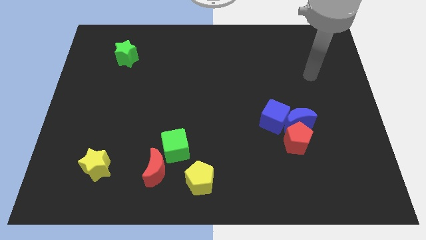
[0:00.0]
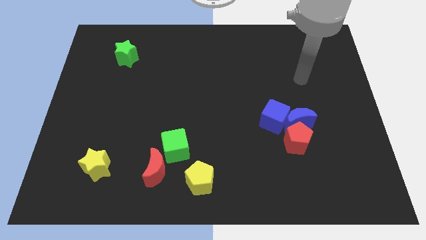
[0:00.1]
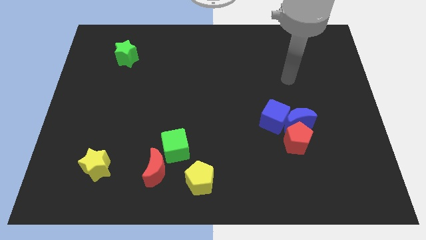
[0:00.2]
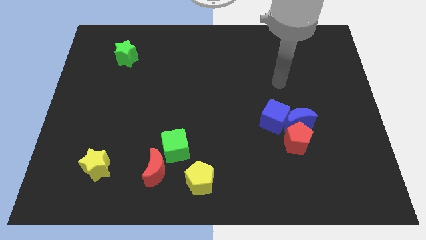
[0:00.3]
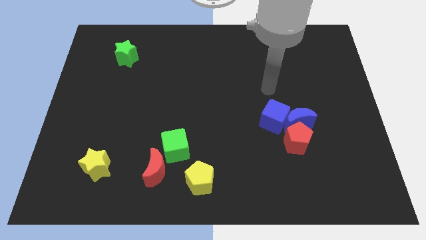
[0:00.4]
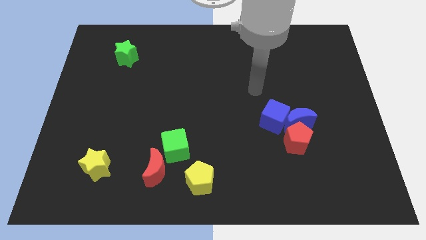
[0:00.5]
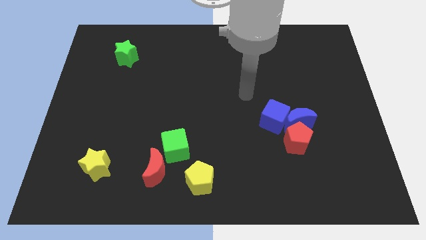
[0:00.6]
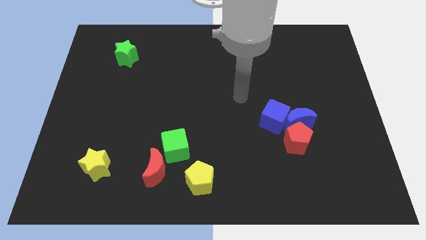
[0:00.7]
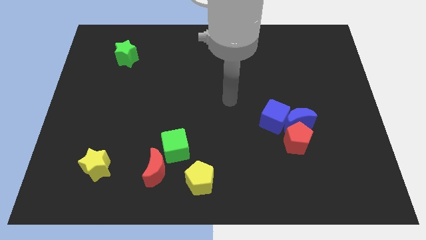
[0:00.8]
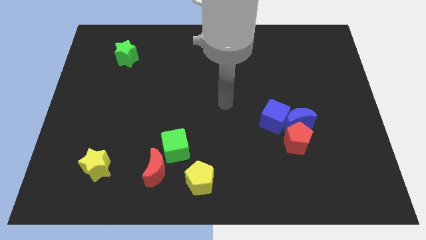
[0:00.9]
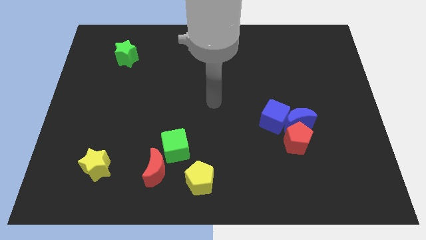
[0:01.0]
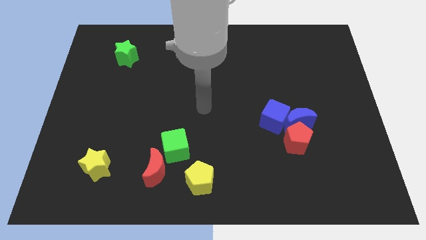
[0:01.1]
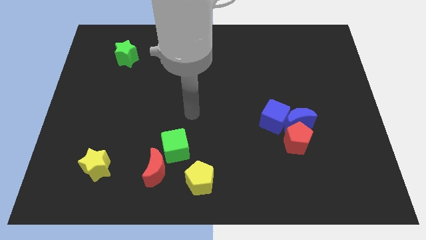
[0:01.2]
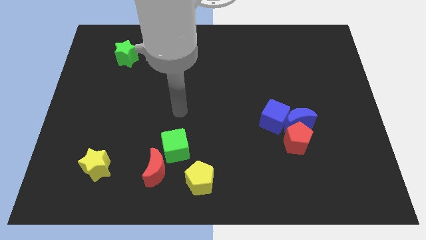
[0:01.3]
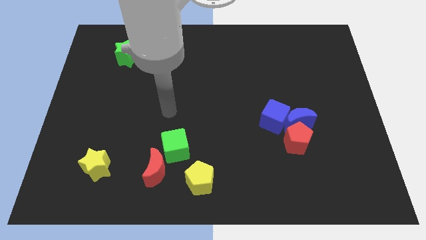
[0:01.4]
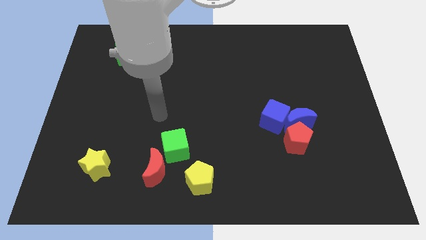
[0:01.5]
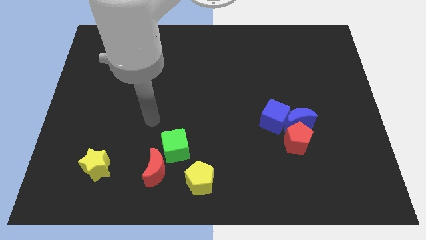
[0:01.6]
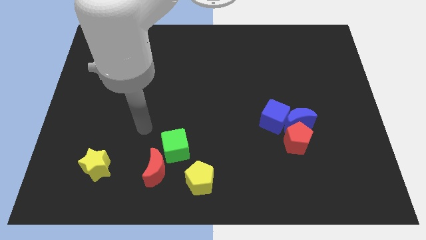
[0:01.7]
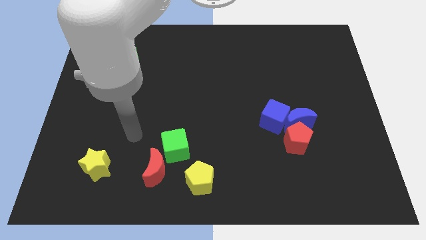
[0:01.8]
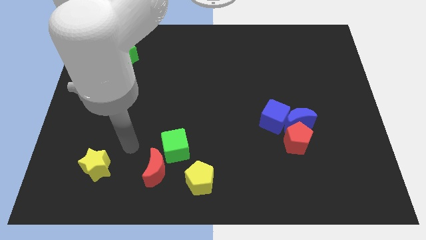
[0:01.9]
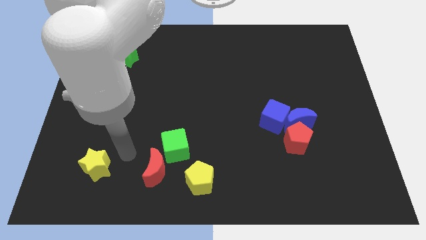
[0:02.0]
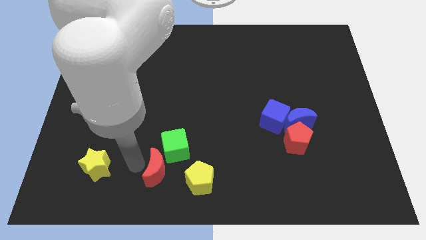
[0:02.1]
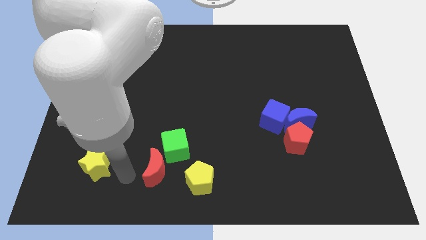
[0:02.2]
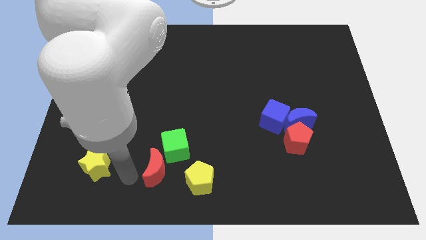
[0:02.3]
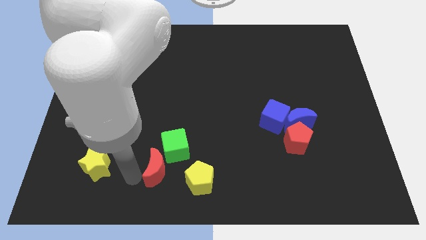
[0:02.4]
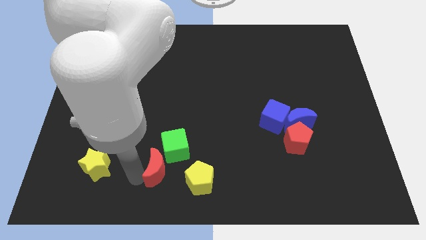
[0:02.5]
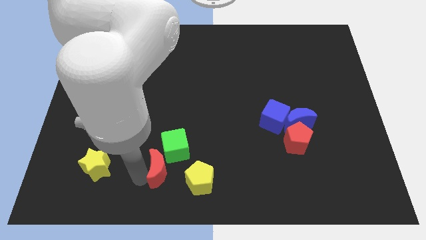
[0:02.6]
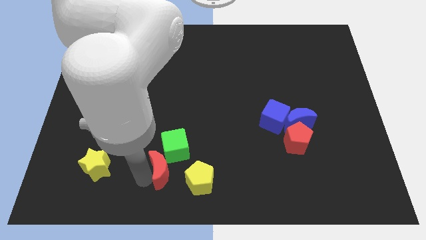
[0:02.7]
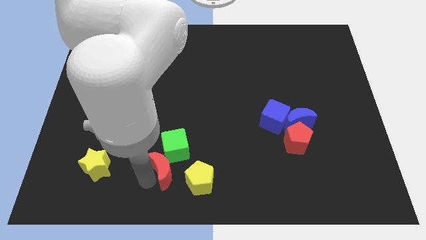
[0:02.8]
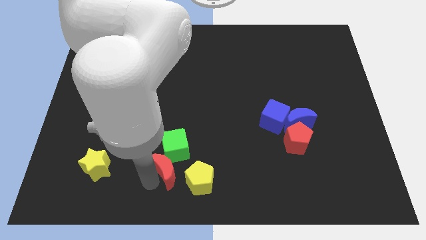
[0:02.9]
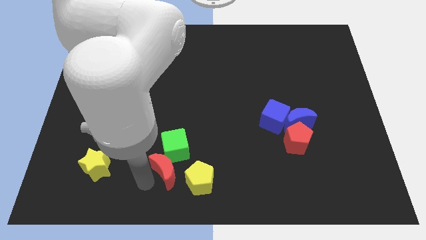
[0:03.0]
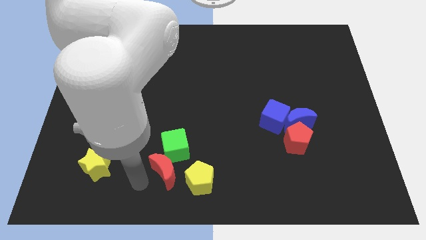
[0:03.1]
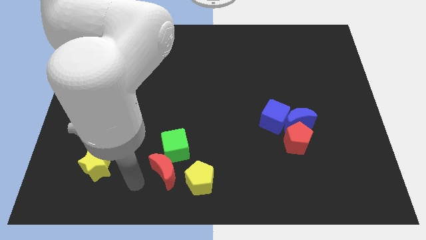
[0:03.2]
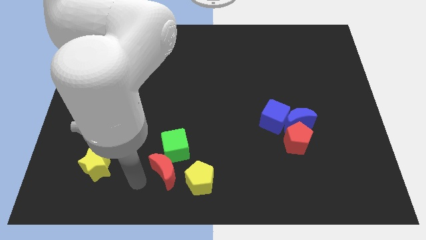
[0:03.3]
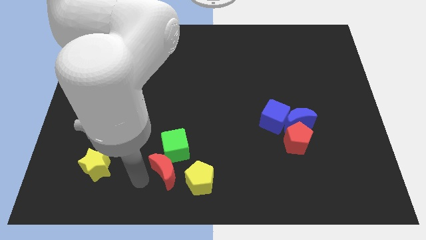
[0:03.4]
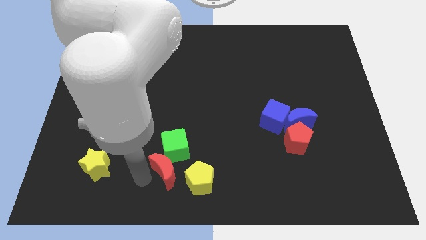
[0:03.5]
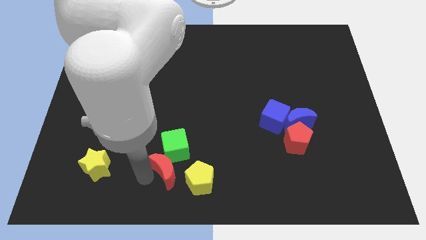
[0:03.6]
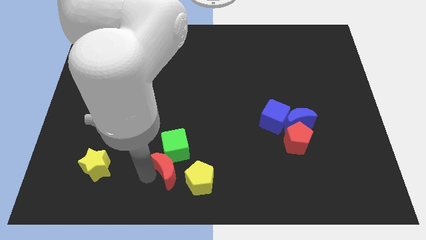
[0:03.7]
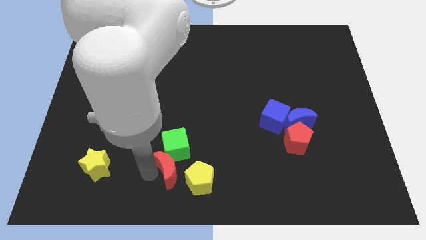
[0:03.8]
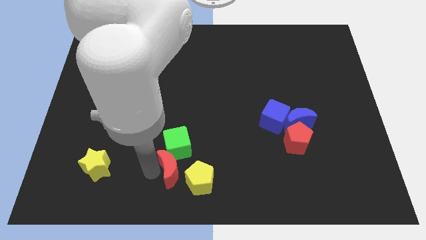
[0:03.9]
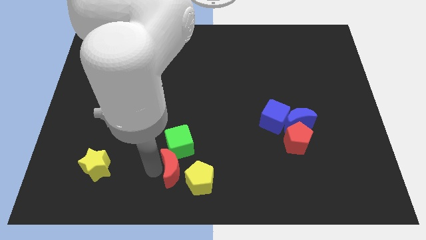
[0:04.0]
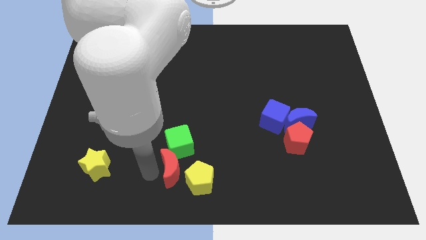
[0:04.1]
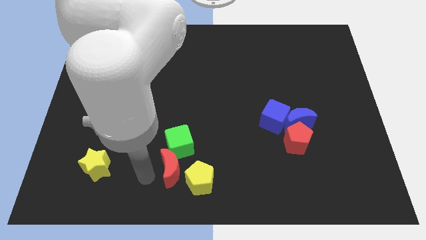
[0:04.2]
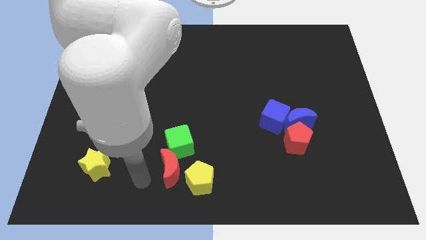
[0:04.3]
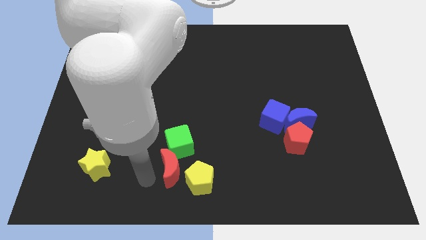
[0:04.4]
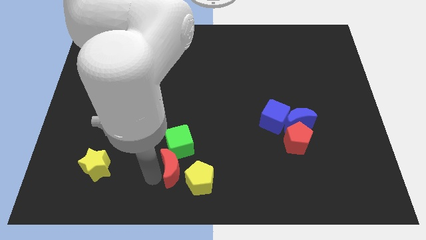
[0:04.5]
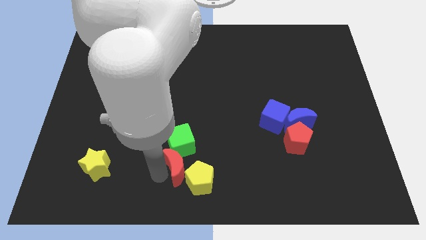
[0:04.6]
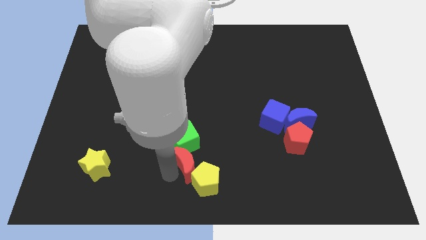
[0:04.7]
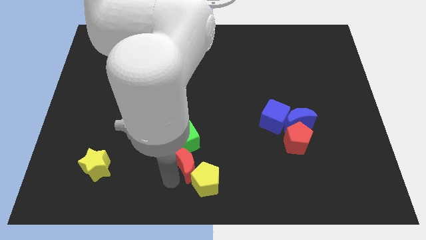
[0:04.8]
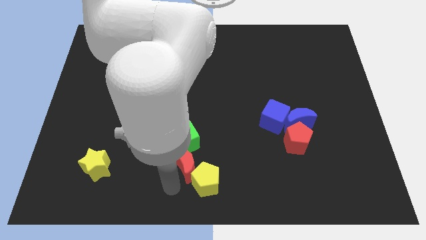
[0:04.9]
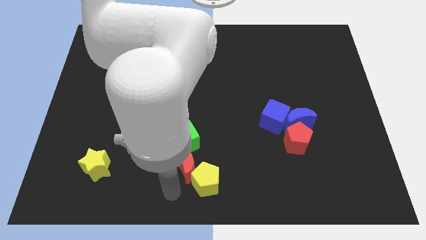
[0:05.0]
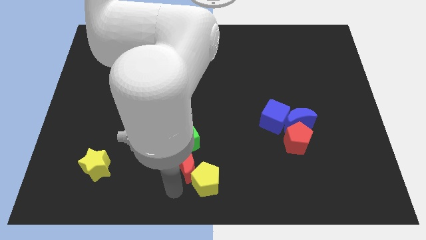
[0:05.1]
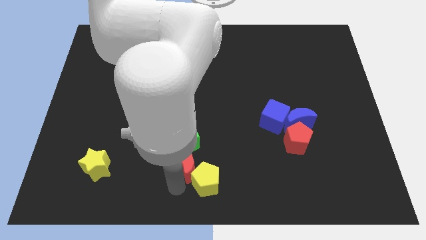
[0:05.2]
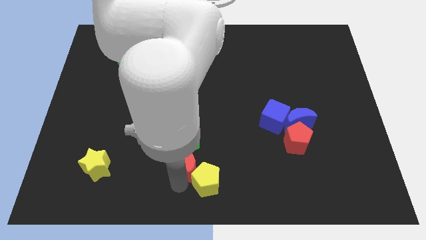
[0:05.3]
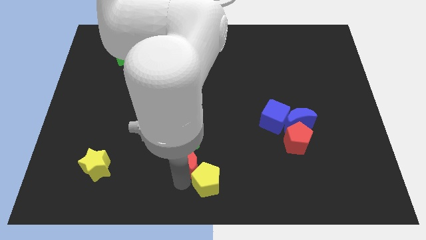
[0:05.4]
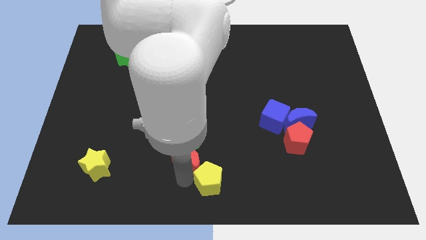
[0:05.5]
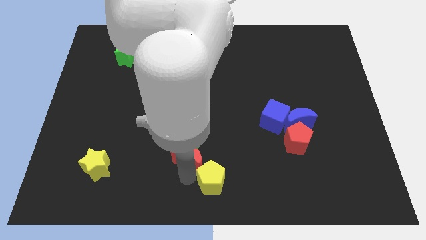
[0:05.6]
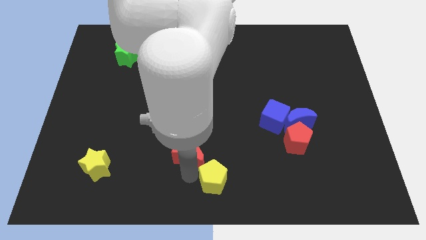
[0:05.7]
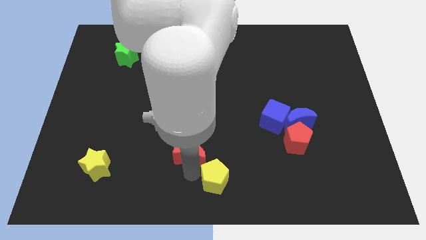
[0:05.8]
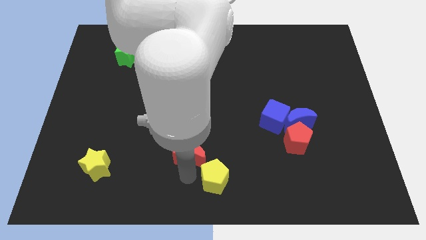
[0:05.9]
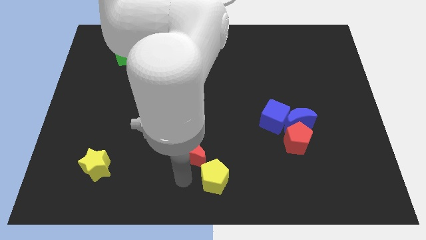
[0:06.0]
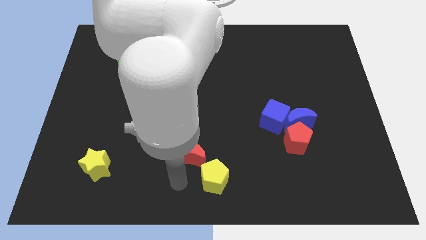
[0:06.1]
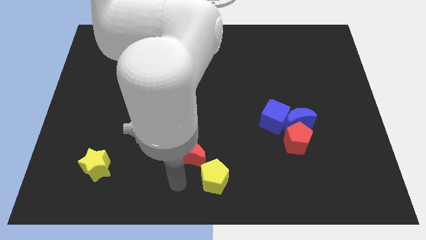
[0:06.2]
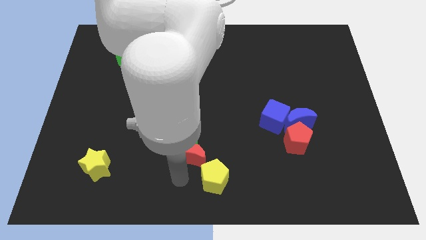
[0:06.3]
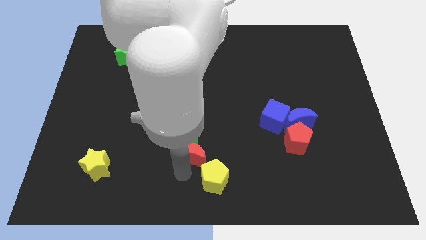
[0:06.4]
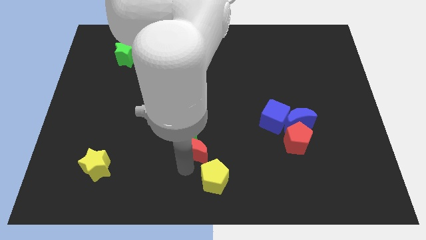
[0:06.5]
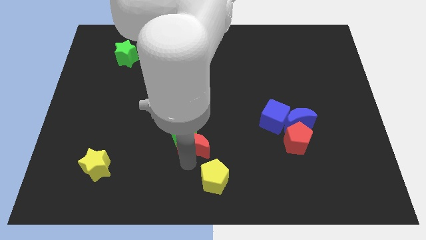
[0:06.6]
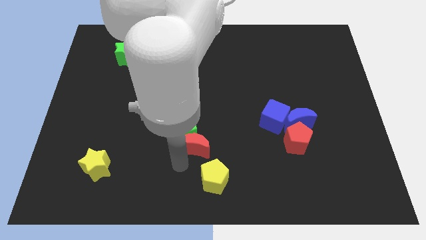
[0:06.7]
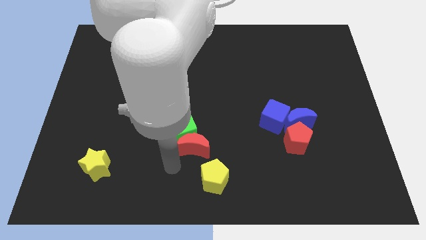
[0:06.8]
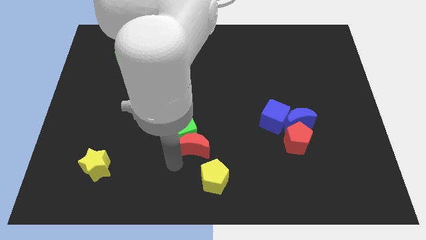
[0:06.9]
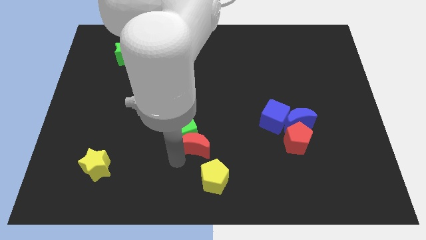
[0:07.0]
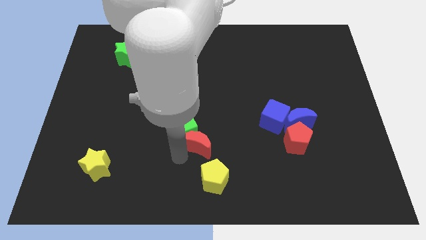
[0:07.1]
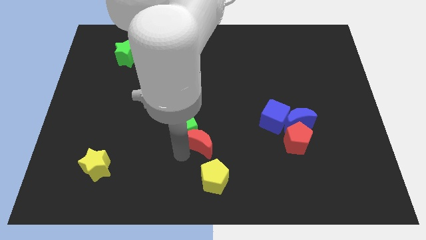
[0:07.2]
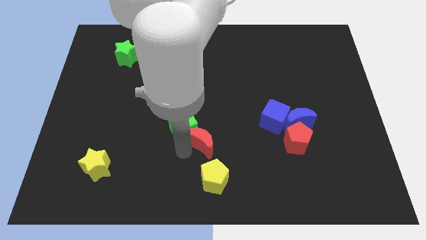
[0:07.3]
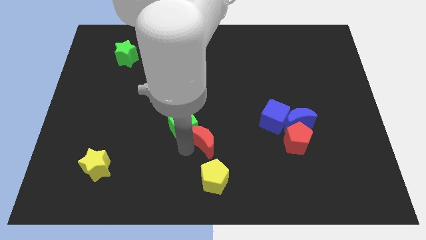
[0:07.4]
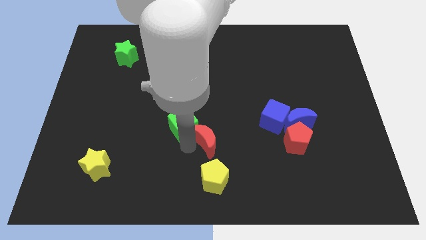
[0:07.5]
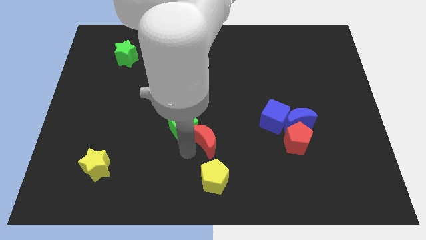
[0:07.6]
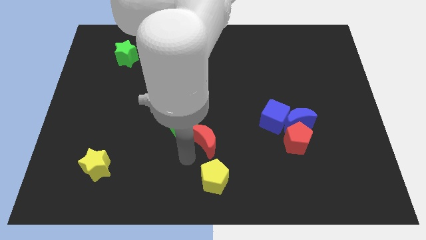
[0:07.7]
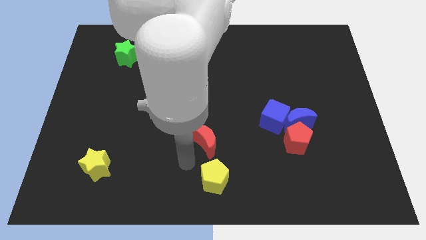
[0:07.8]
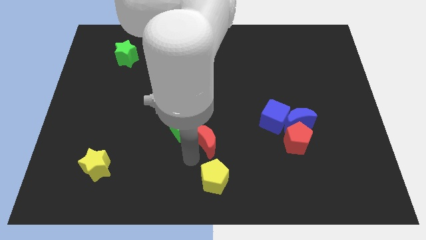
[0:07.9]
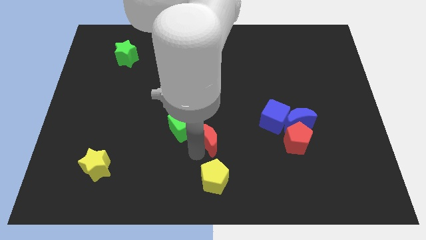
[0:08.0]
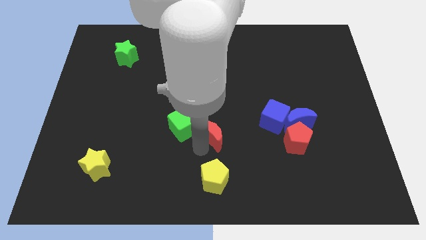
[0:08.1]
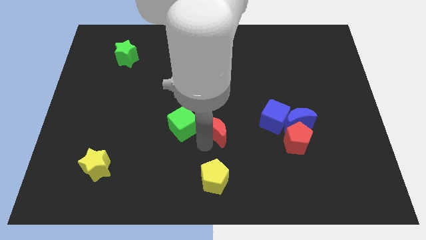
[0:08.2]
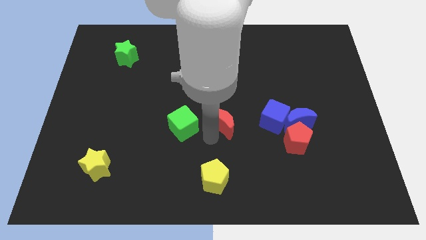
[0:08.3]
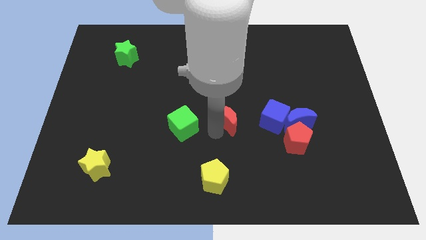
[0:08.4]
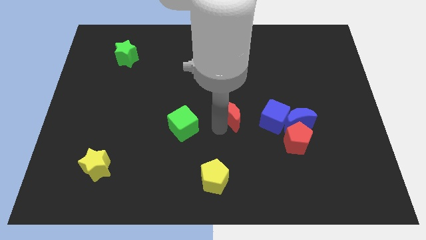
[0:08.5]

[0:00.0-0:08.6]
move the red moon up and to the right diagonally
